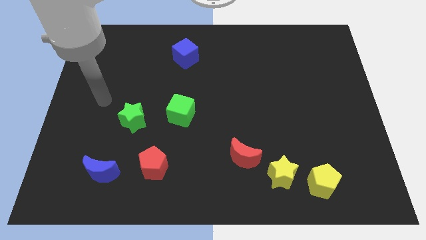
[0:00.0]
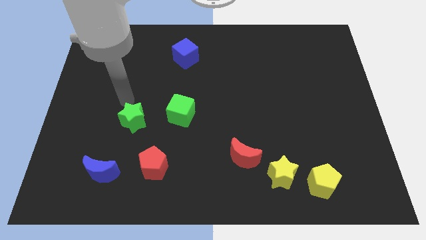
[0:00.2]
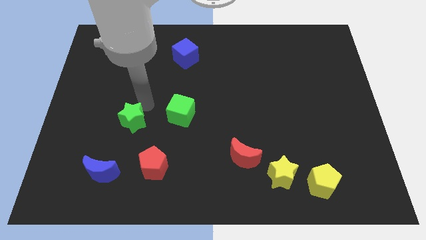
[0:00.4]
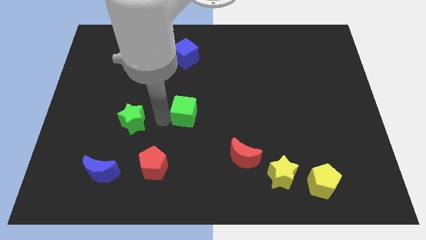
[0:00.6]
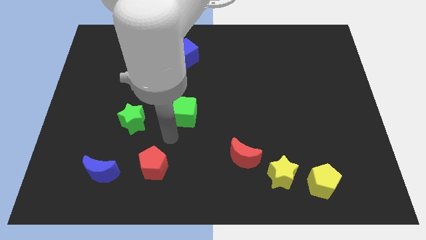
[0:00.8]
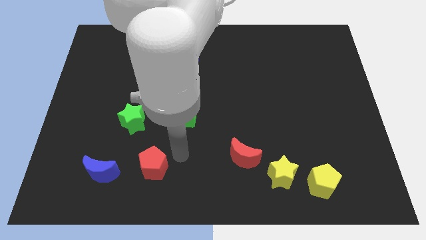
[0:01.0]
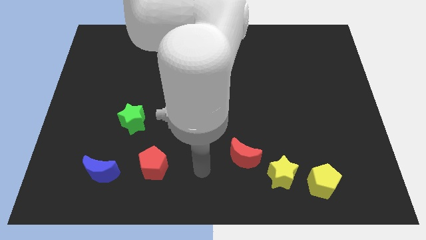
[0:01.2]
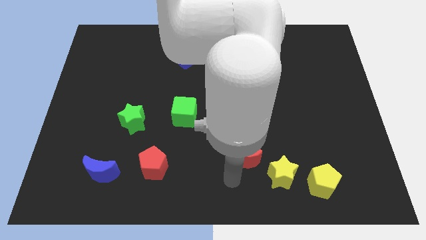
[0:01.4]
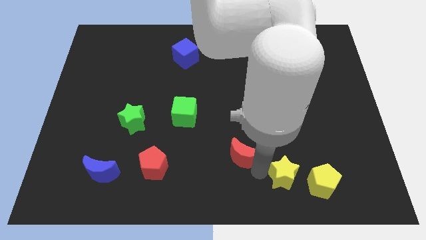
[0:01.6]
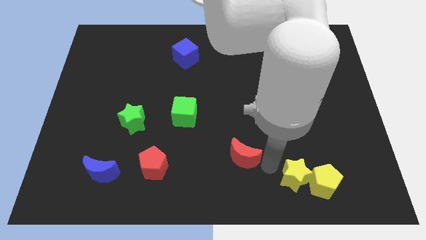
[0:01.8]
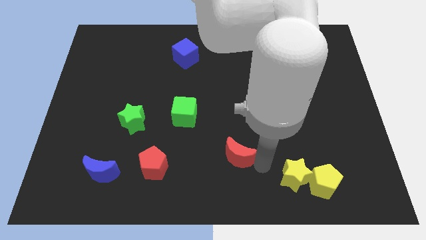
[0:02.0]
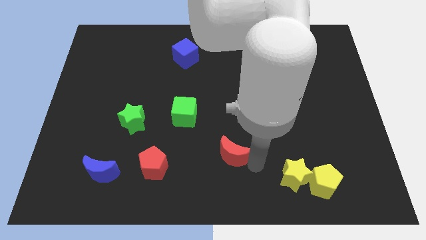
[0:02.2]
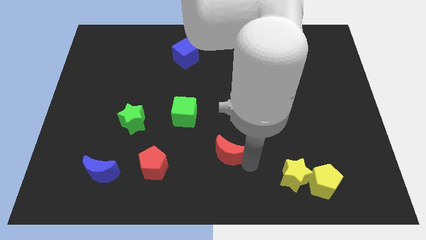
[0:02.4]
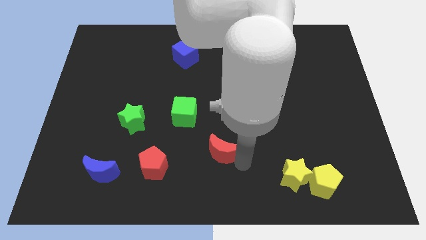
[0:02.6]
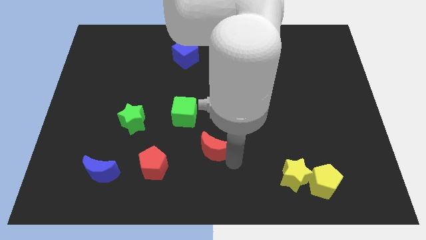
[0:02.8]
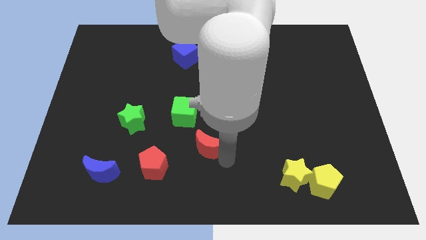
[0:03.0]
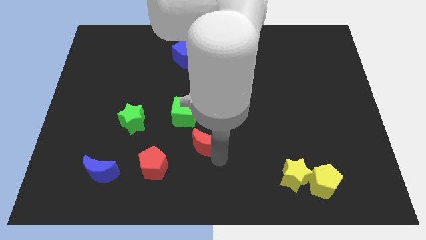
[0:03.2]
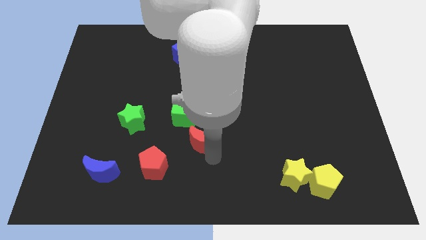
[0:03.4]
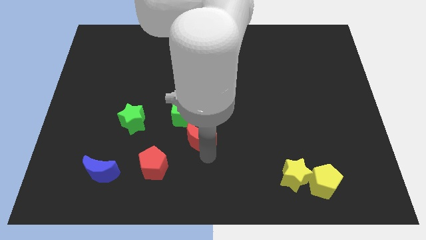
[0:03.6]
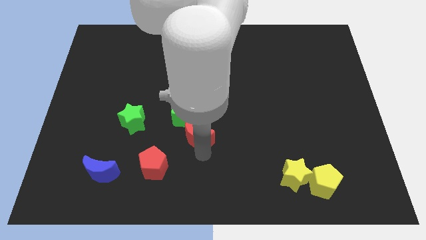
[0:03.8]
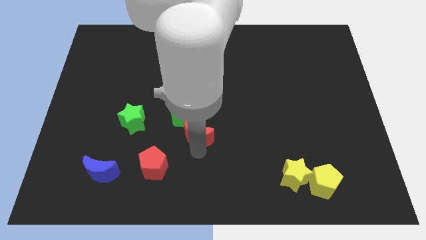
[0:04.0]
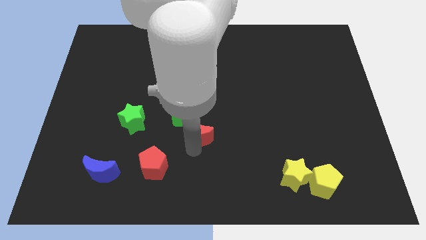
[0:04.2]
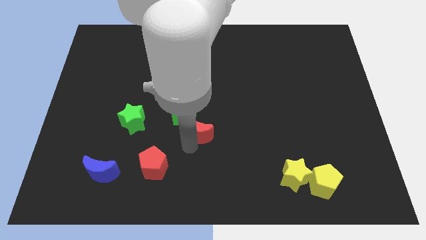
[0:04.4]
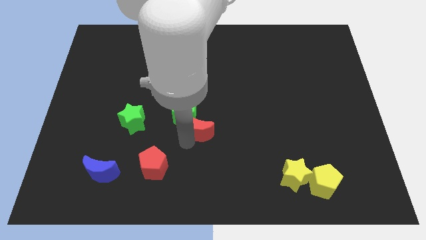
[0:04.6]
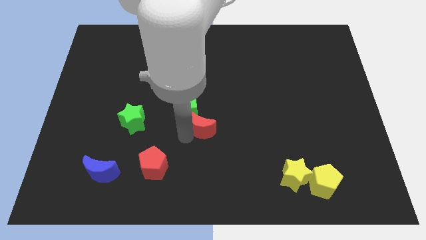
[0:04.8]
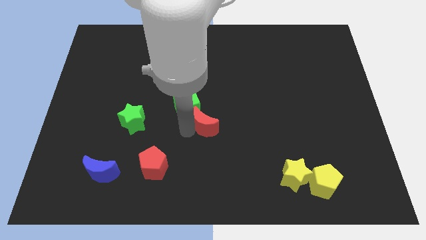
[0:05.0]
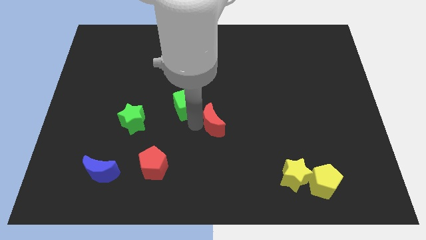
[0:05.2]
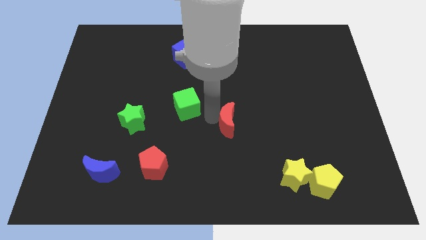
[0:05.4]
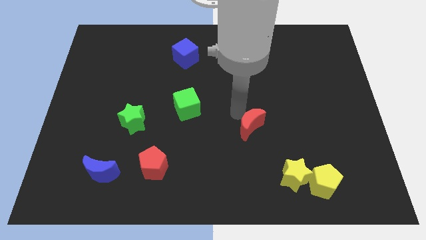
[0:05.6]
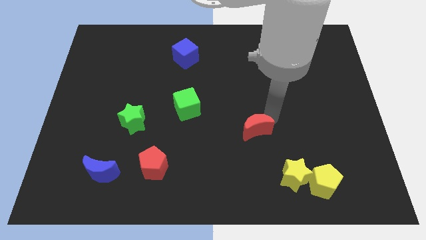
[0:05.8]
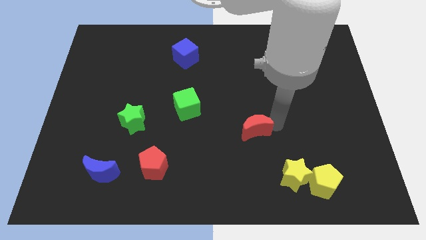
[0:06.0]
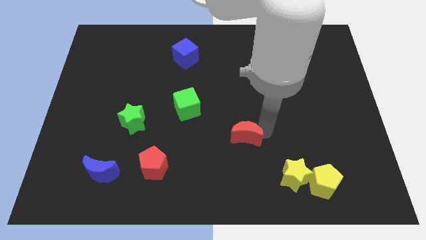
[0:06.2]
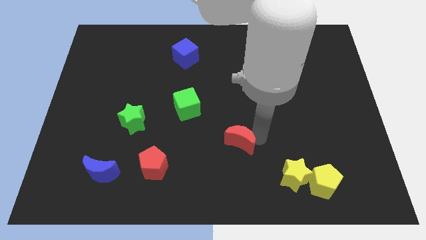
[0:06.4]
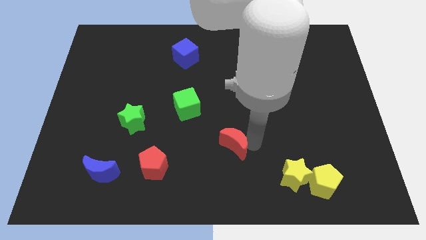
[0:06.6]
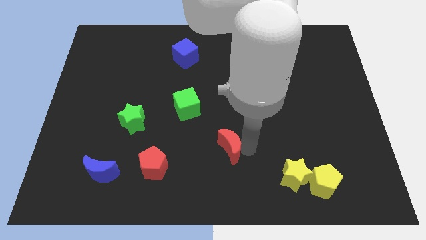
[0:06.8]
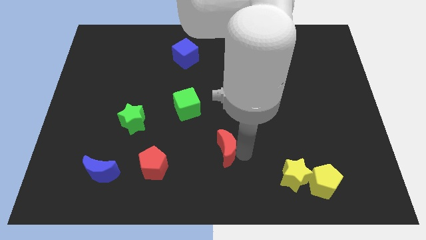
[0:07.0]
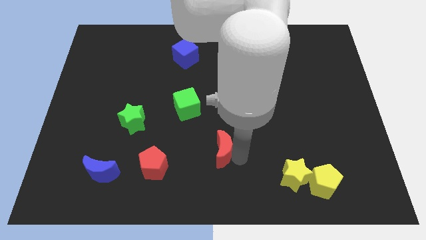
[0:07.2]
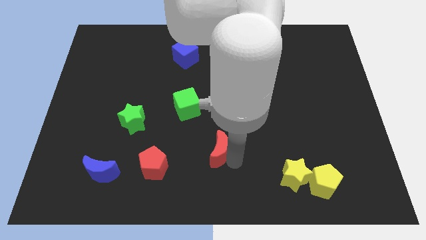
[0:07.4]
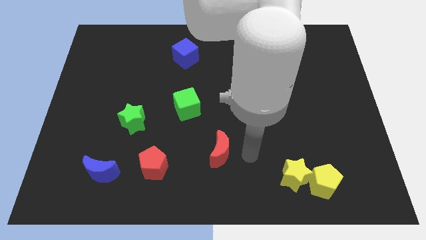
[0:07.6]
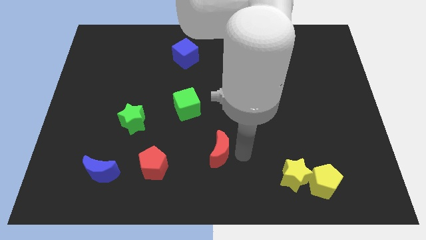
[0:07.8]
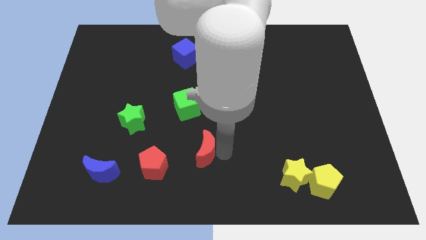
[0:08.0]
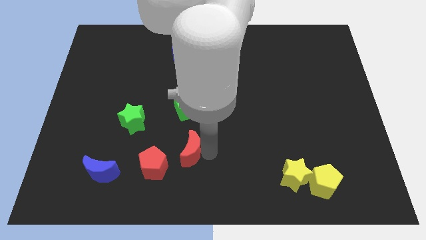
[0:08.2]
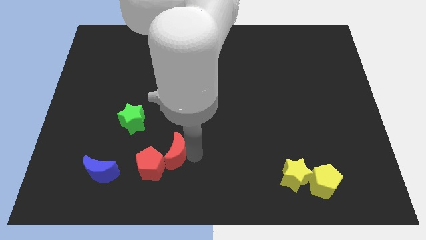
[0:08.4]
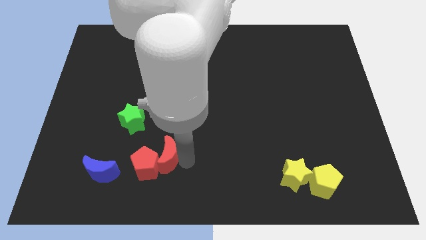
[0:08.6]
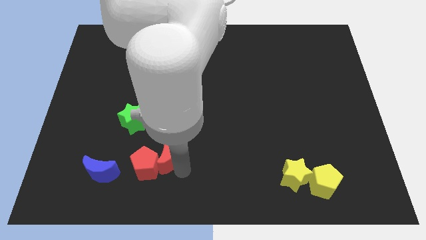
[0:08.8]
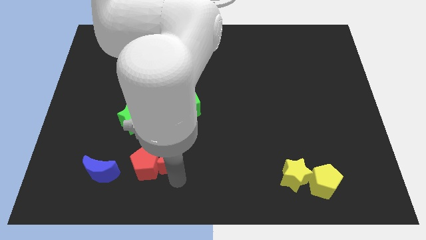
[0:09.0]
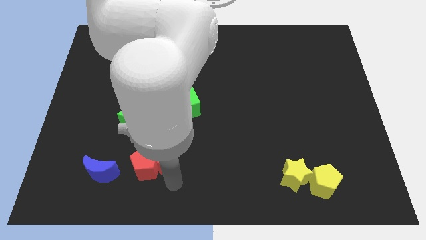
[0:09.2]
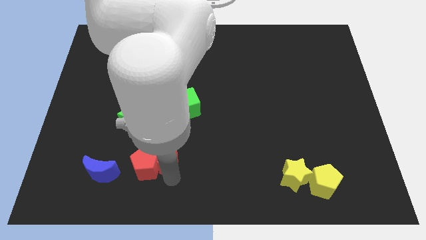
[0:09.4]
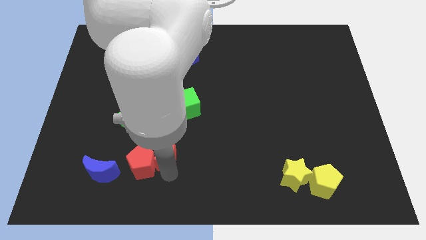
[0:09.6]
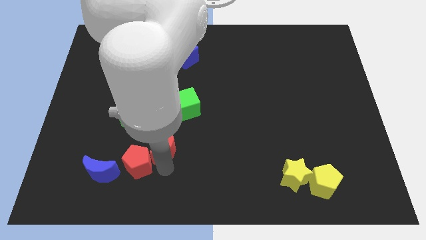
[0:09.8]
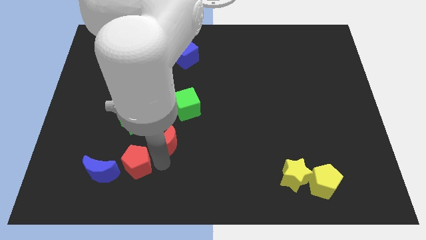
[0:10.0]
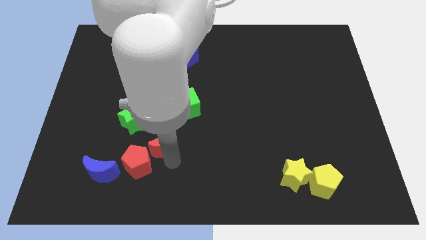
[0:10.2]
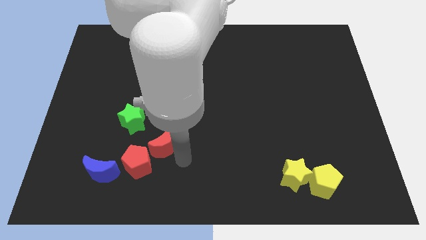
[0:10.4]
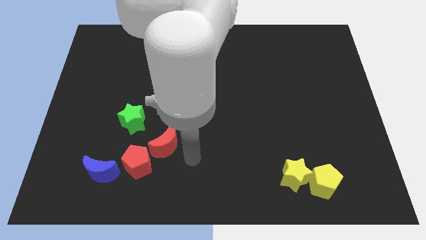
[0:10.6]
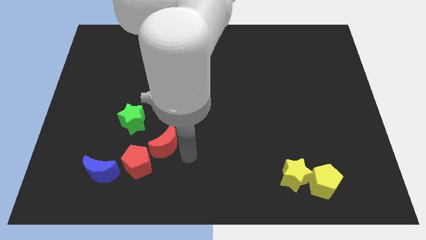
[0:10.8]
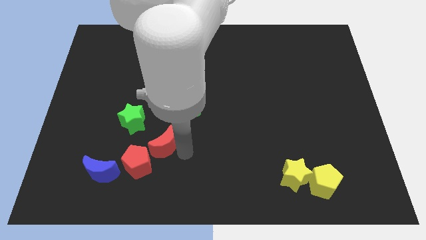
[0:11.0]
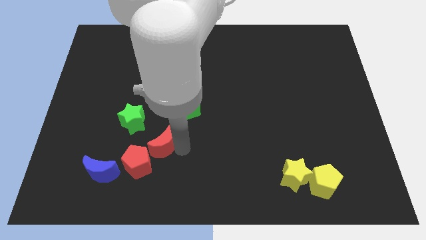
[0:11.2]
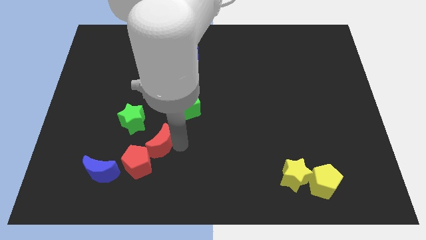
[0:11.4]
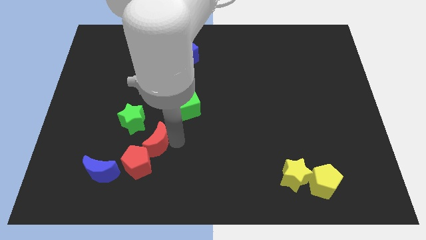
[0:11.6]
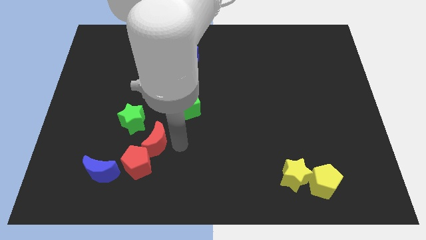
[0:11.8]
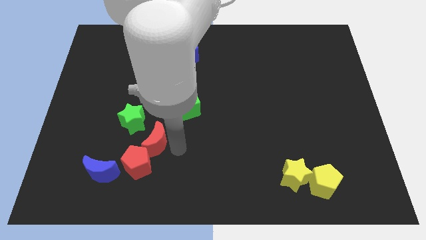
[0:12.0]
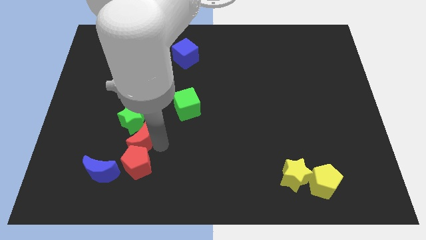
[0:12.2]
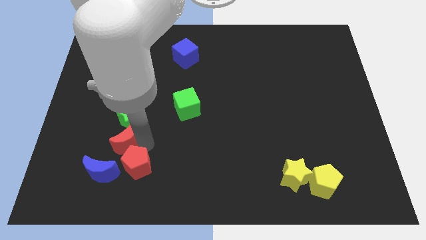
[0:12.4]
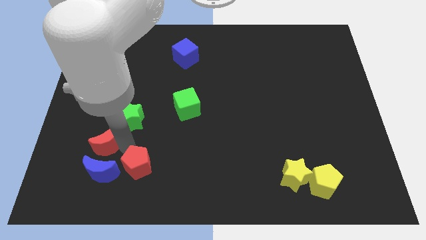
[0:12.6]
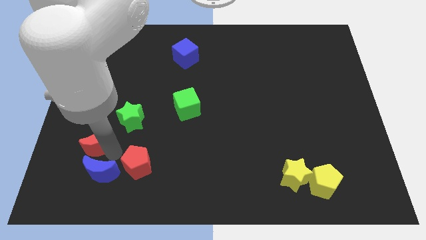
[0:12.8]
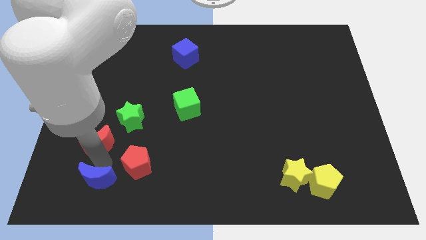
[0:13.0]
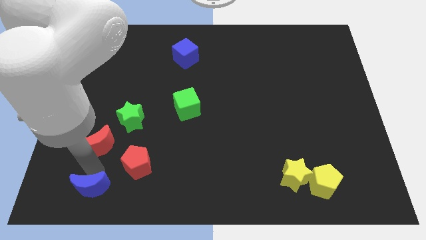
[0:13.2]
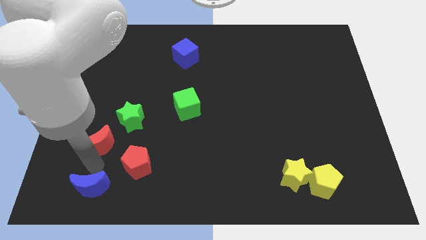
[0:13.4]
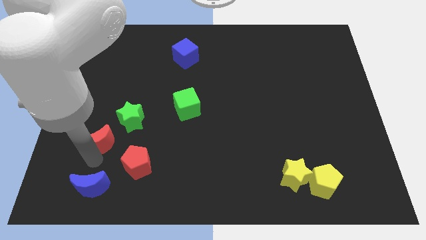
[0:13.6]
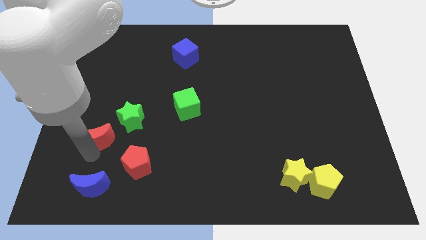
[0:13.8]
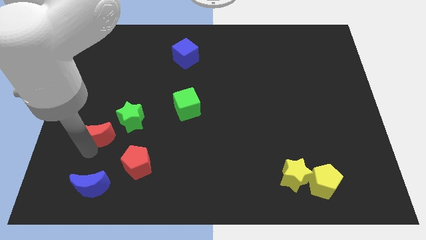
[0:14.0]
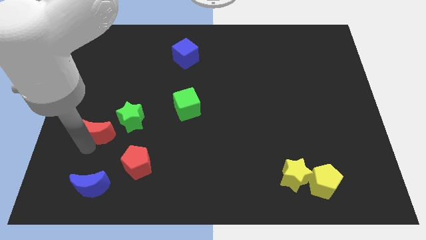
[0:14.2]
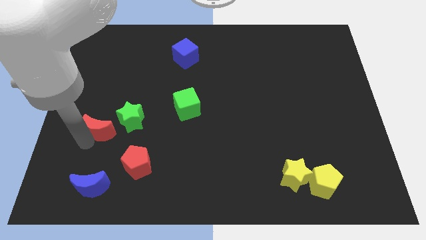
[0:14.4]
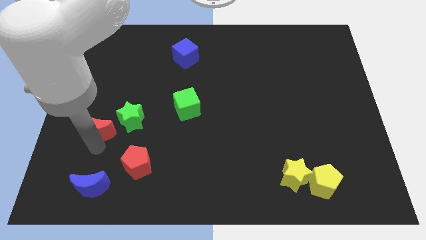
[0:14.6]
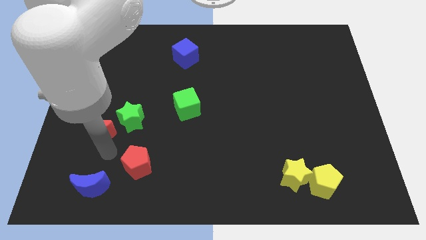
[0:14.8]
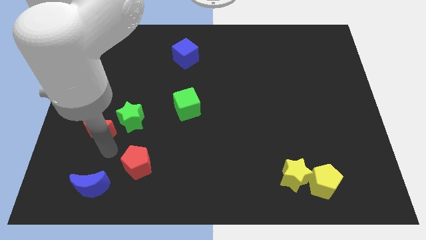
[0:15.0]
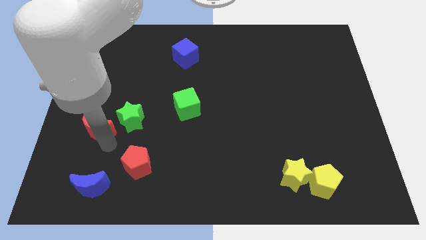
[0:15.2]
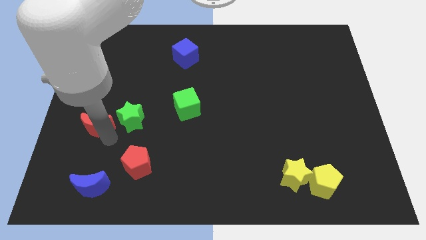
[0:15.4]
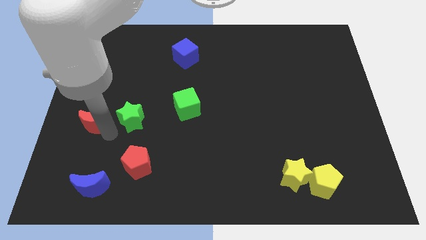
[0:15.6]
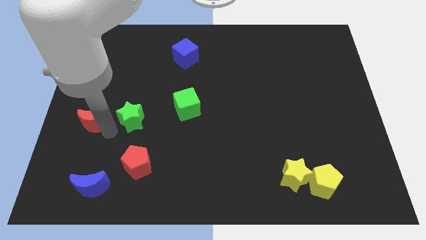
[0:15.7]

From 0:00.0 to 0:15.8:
put the red moon to the left side
